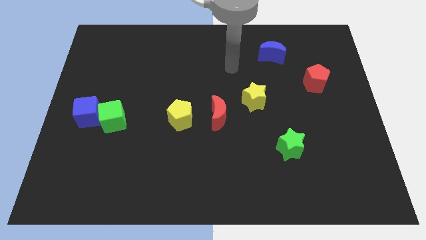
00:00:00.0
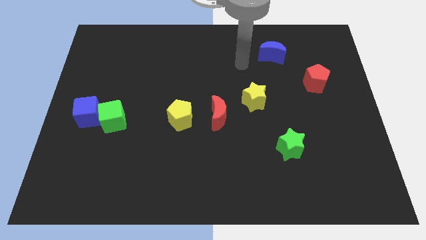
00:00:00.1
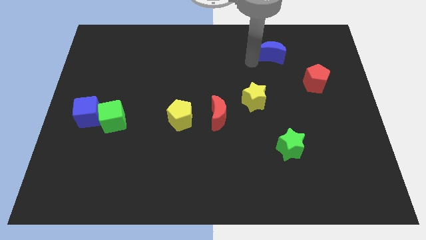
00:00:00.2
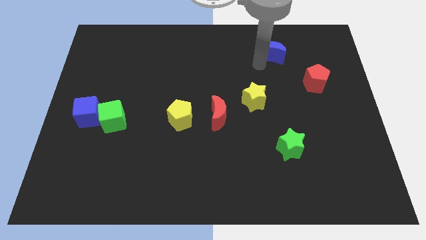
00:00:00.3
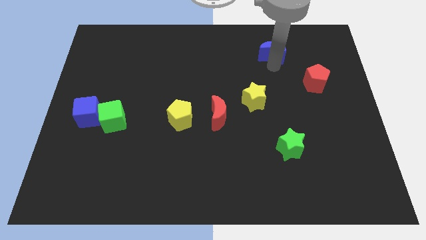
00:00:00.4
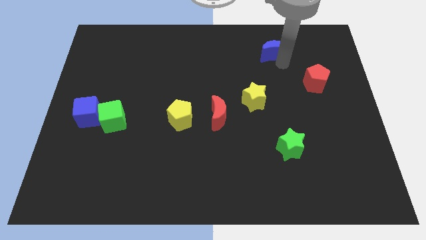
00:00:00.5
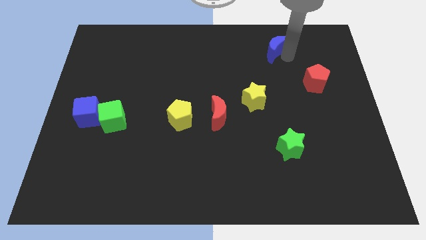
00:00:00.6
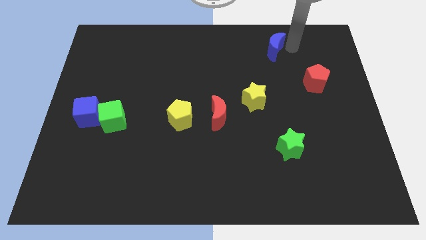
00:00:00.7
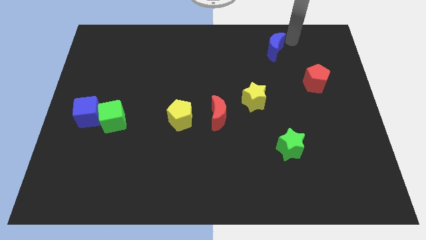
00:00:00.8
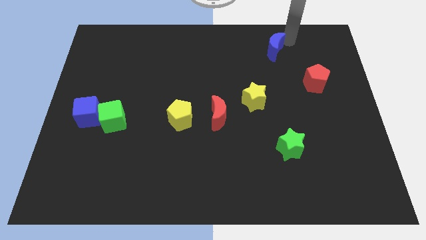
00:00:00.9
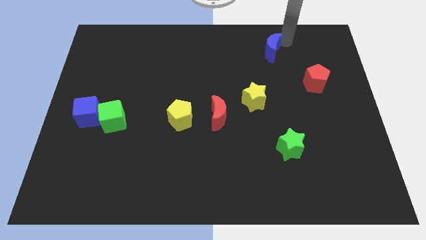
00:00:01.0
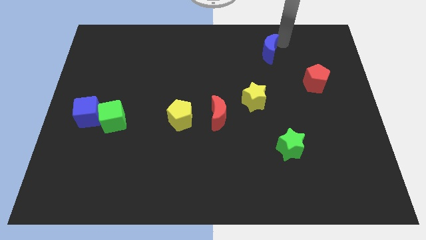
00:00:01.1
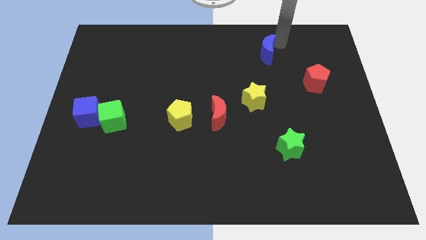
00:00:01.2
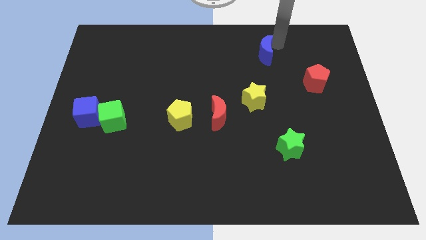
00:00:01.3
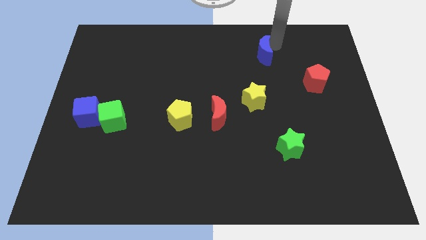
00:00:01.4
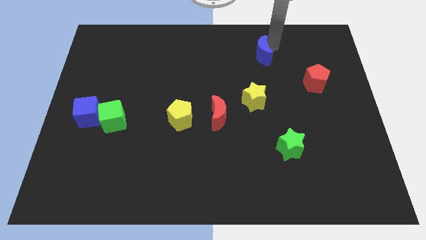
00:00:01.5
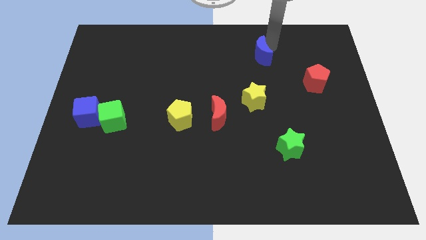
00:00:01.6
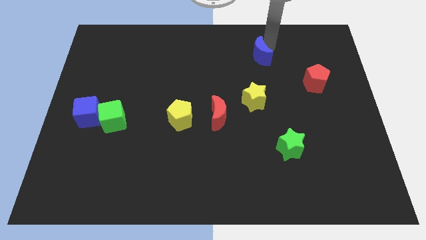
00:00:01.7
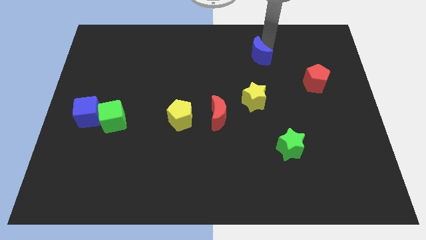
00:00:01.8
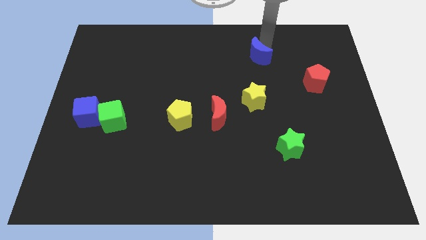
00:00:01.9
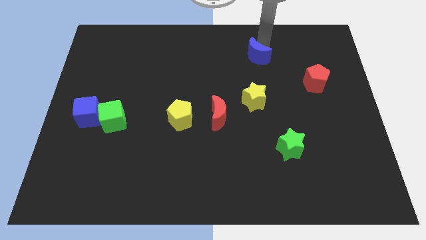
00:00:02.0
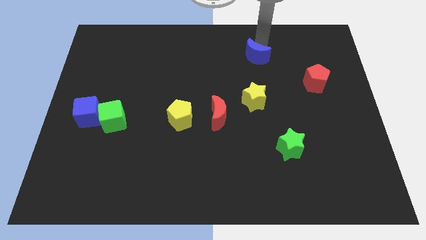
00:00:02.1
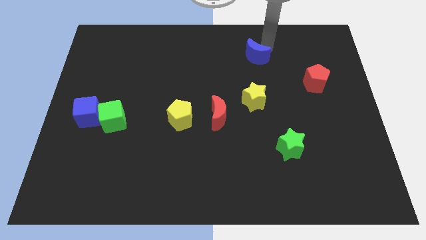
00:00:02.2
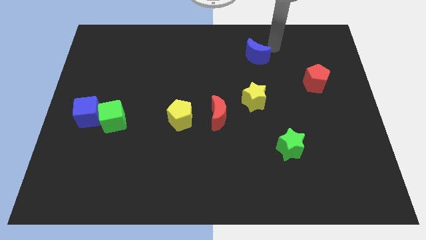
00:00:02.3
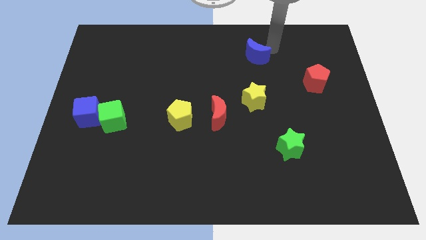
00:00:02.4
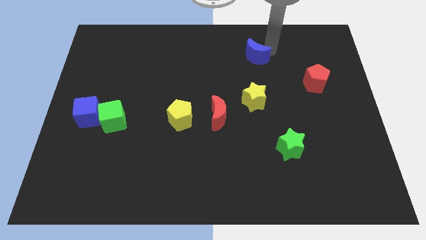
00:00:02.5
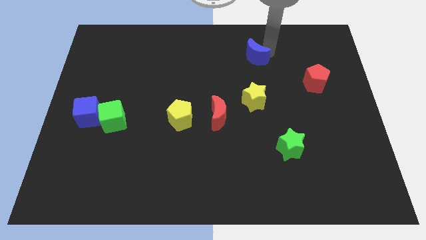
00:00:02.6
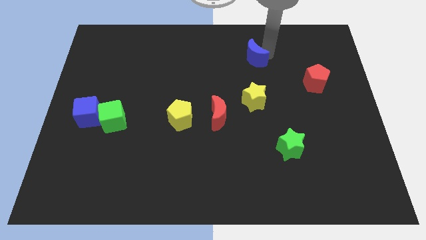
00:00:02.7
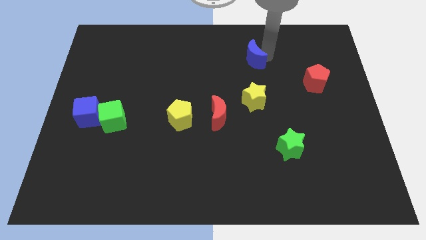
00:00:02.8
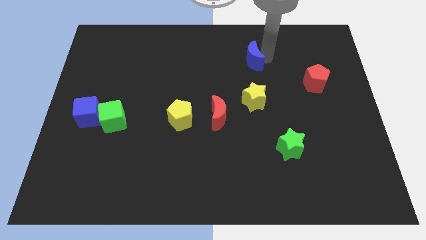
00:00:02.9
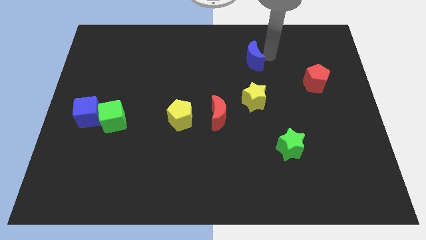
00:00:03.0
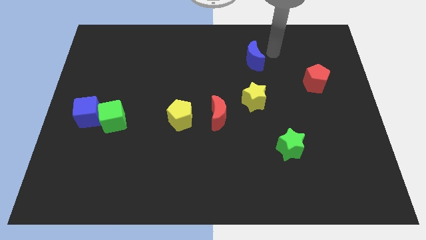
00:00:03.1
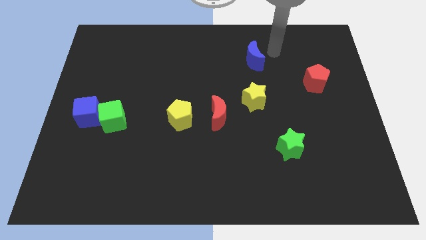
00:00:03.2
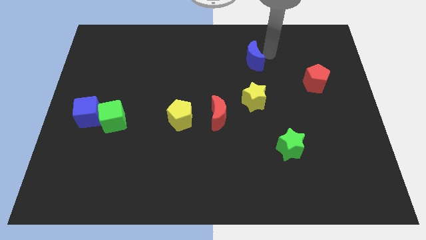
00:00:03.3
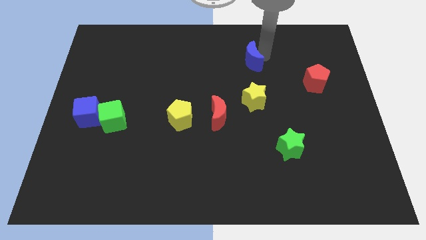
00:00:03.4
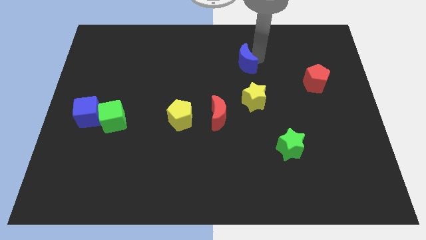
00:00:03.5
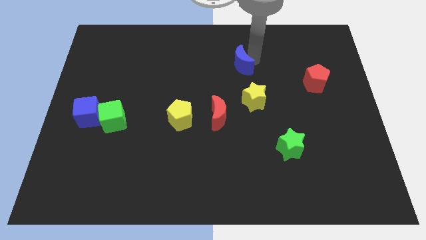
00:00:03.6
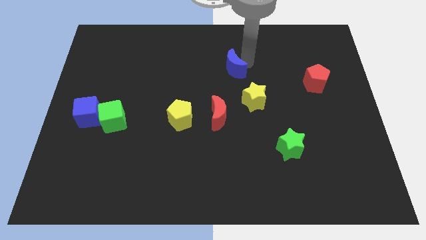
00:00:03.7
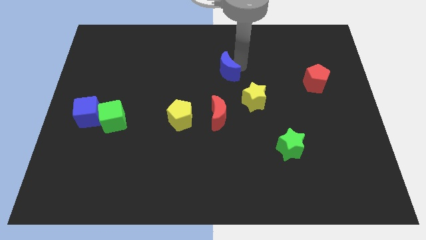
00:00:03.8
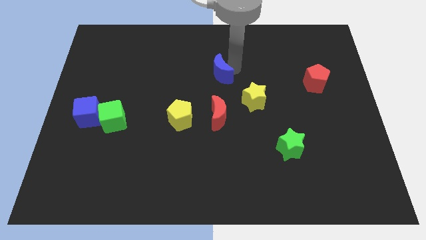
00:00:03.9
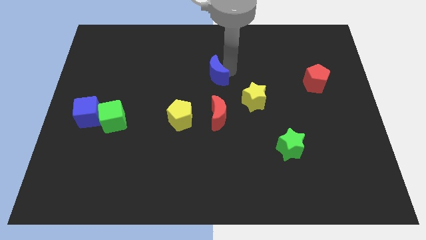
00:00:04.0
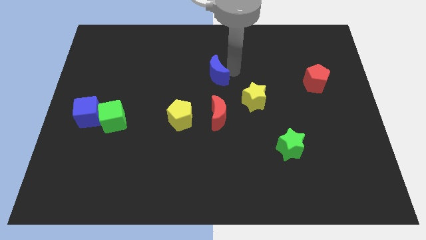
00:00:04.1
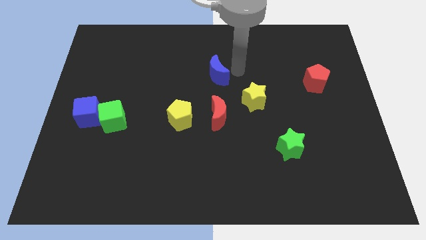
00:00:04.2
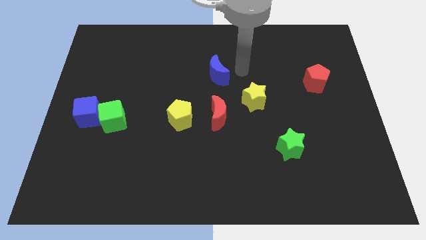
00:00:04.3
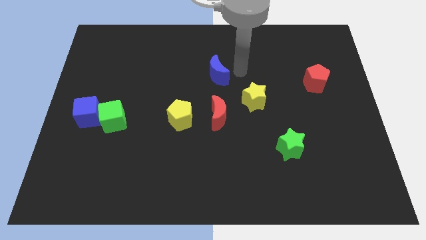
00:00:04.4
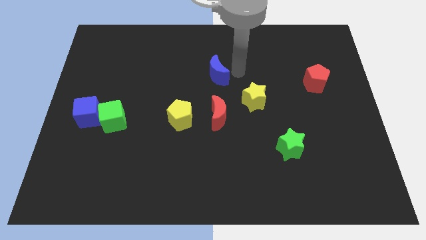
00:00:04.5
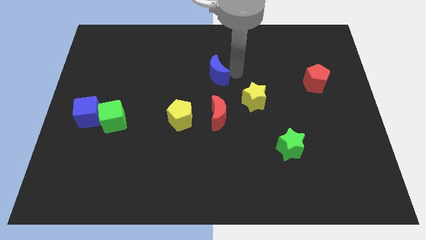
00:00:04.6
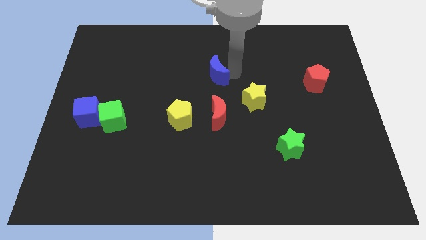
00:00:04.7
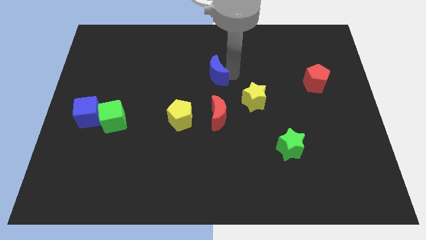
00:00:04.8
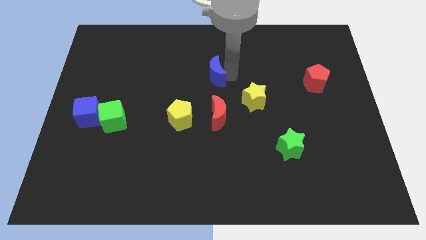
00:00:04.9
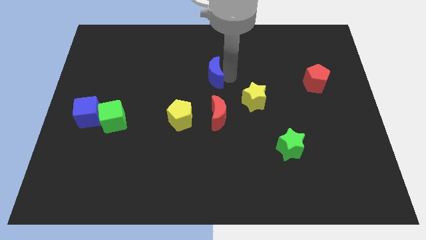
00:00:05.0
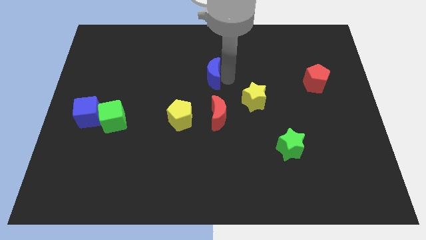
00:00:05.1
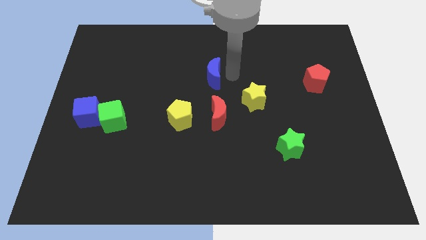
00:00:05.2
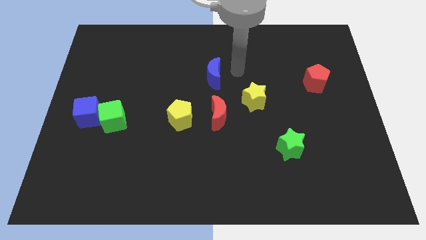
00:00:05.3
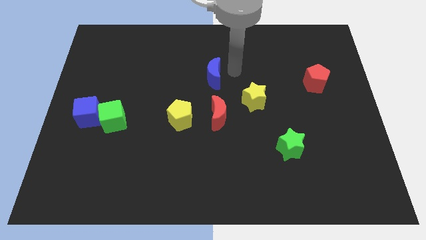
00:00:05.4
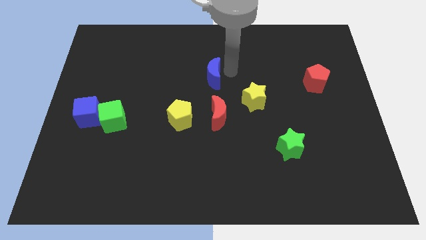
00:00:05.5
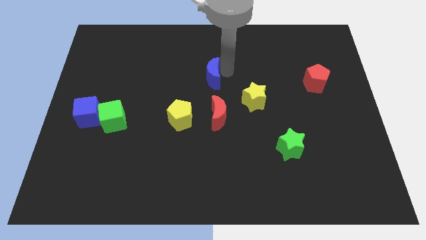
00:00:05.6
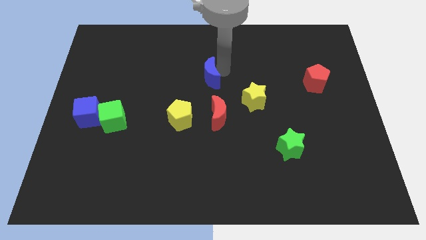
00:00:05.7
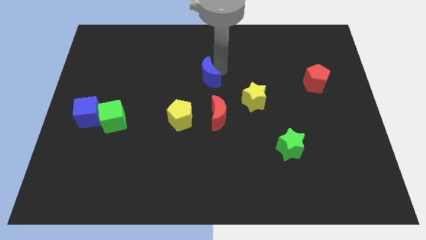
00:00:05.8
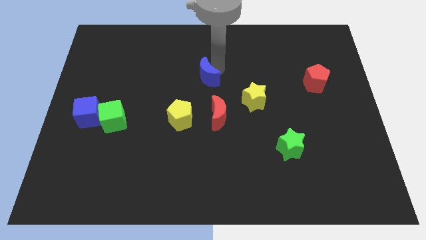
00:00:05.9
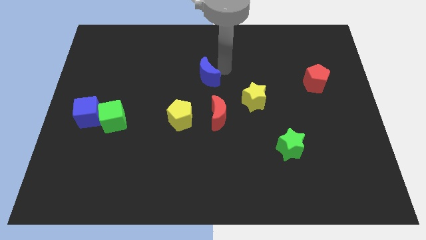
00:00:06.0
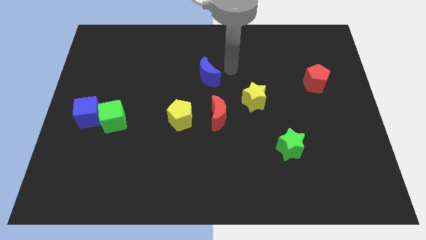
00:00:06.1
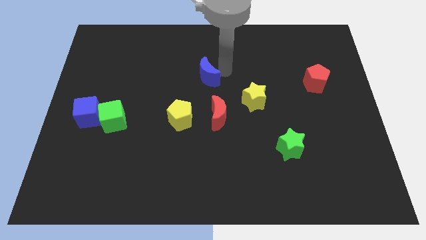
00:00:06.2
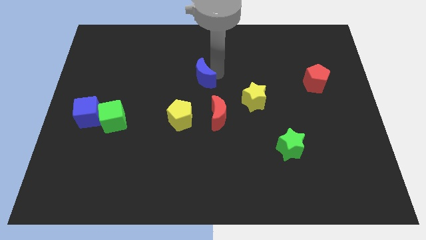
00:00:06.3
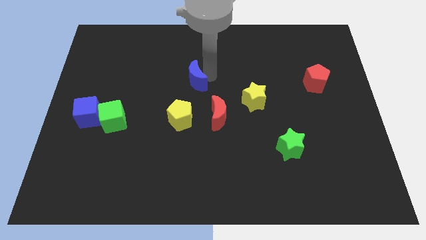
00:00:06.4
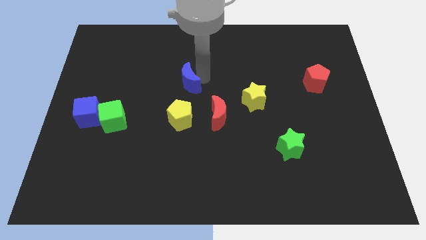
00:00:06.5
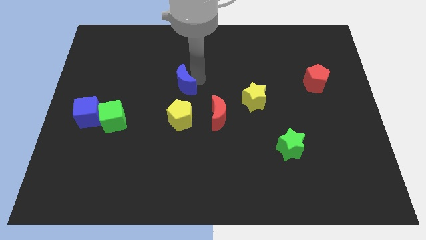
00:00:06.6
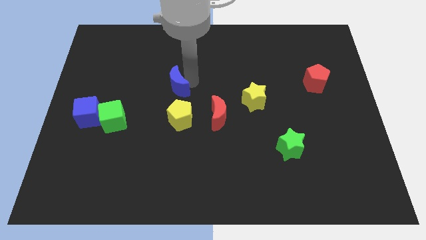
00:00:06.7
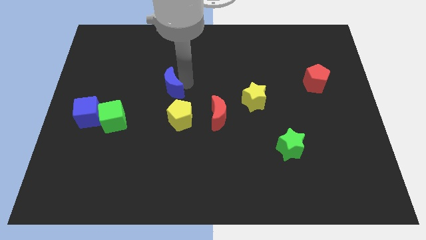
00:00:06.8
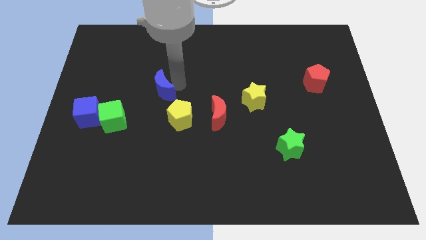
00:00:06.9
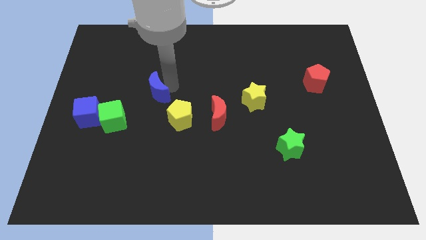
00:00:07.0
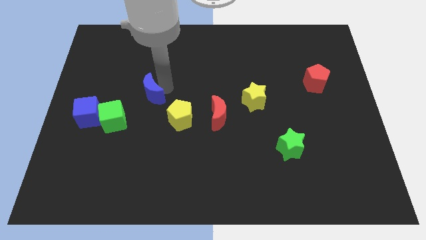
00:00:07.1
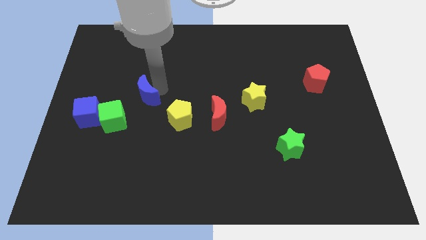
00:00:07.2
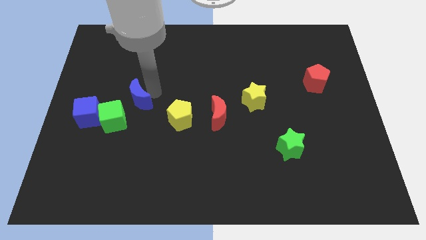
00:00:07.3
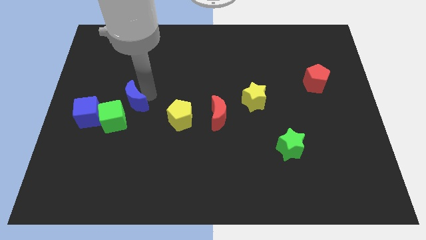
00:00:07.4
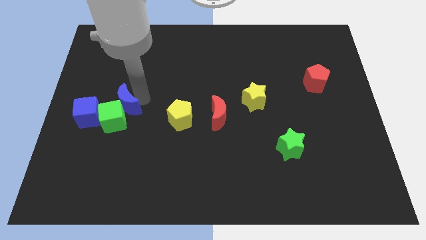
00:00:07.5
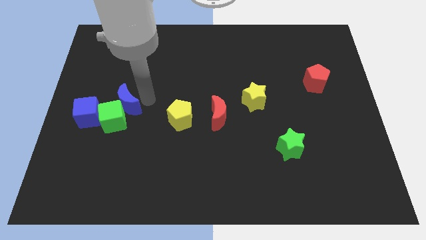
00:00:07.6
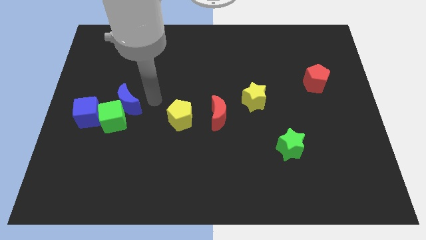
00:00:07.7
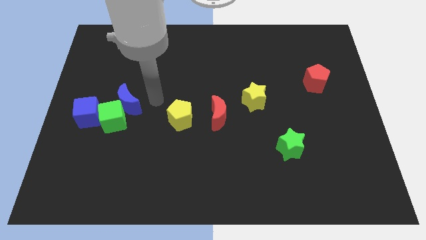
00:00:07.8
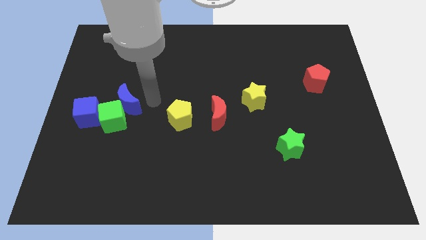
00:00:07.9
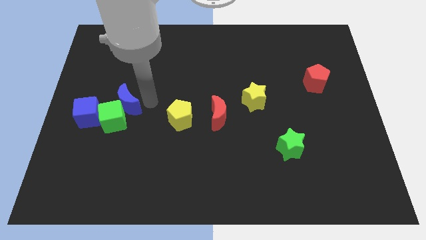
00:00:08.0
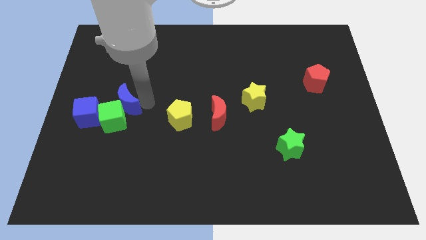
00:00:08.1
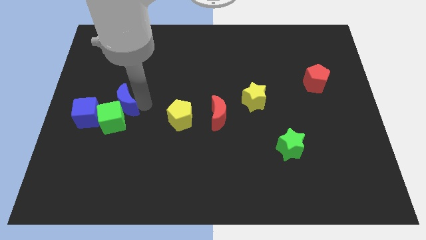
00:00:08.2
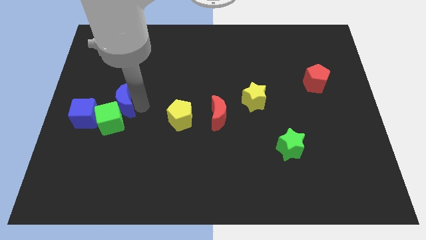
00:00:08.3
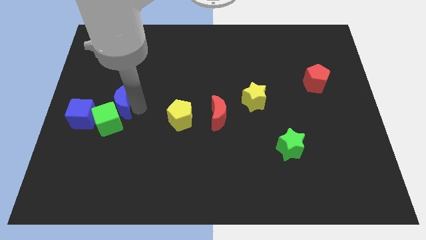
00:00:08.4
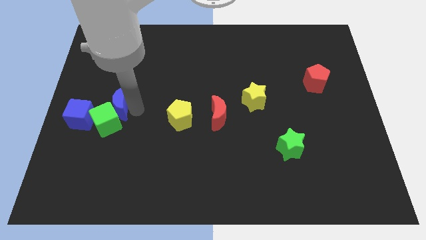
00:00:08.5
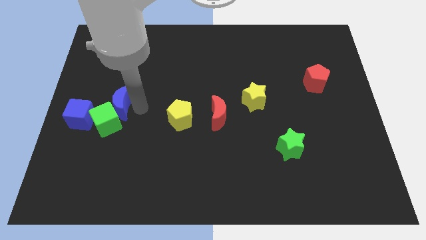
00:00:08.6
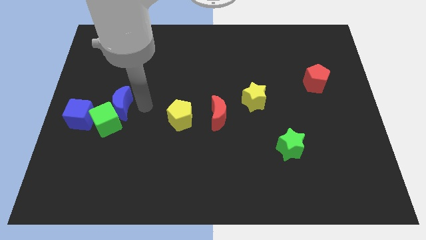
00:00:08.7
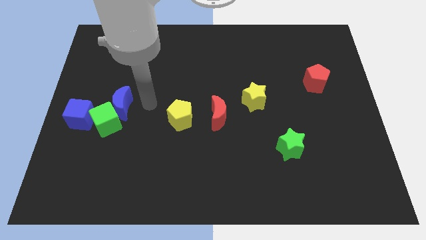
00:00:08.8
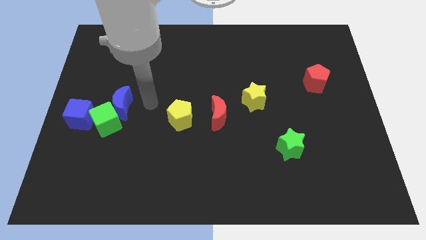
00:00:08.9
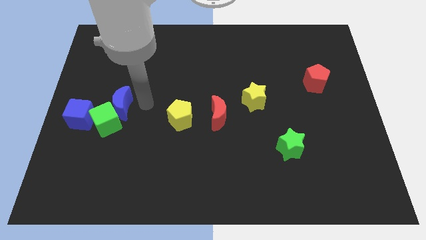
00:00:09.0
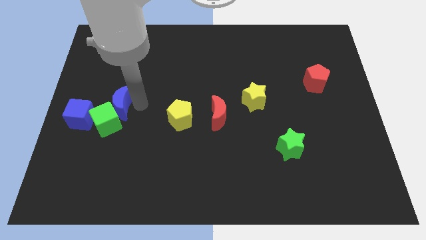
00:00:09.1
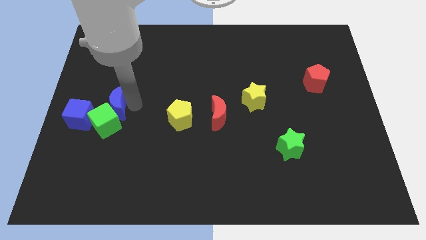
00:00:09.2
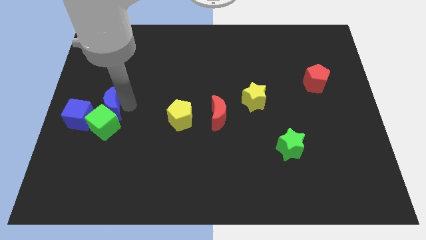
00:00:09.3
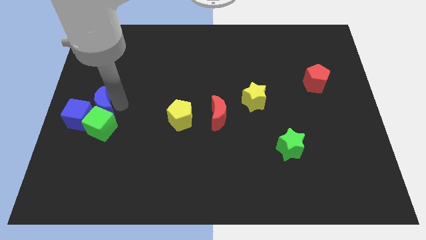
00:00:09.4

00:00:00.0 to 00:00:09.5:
put the blue moon towards the blue cube
